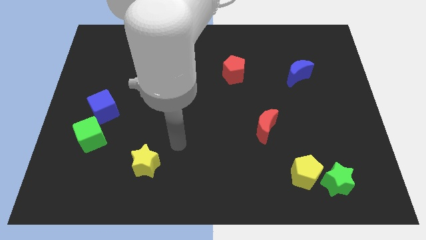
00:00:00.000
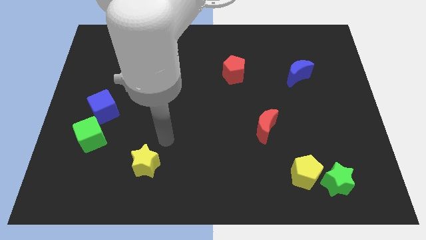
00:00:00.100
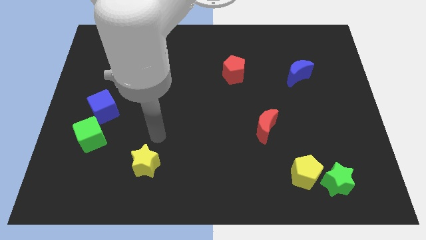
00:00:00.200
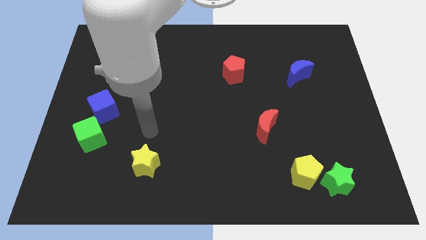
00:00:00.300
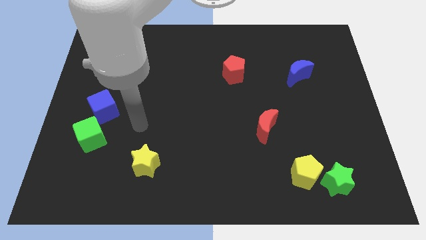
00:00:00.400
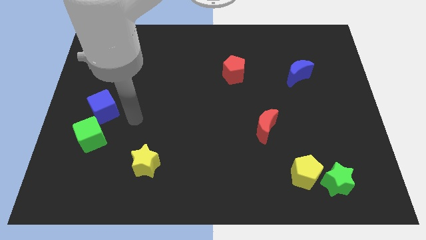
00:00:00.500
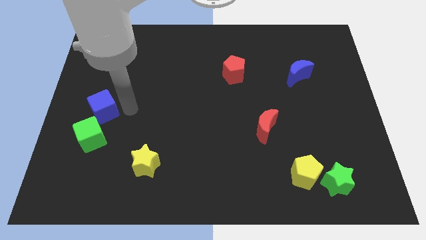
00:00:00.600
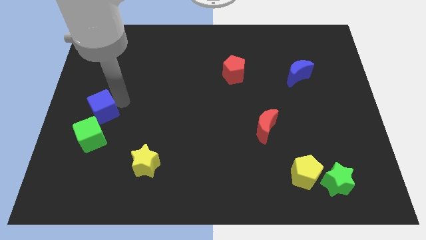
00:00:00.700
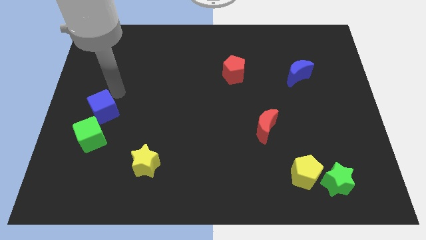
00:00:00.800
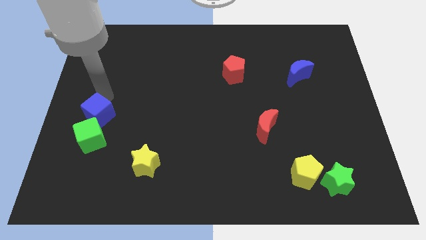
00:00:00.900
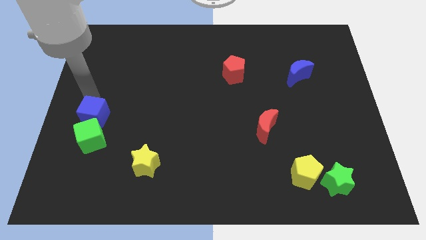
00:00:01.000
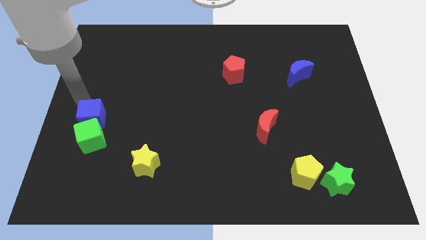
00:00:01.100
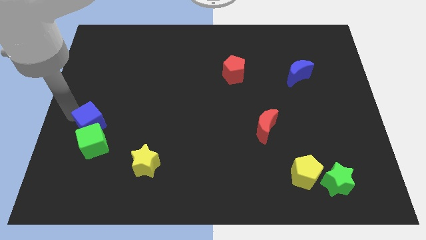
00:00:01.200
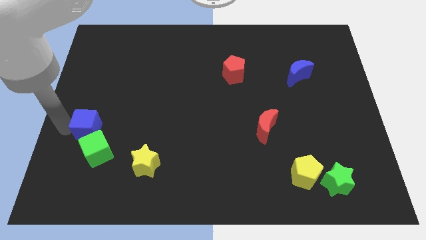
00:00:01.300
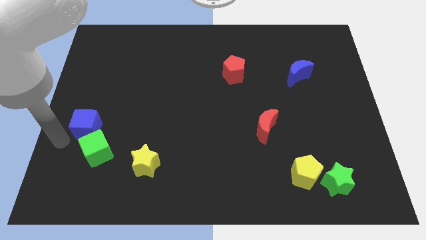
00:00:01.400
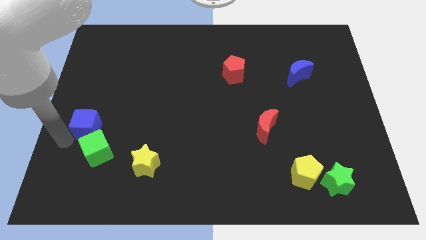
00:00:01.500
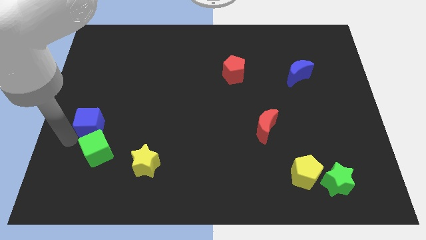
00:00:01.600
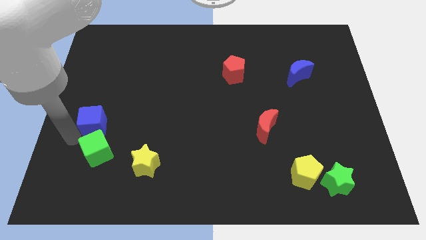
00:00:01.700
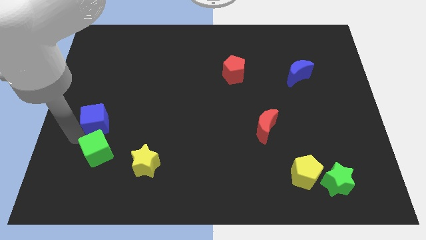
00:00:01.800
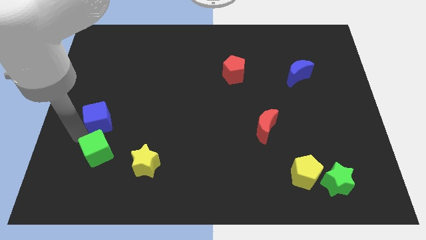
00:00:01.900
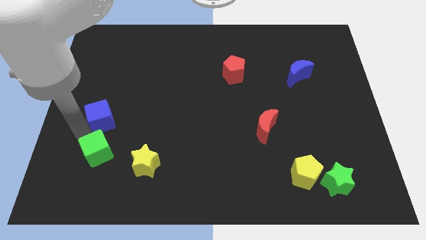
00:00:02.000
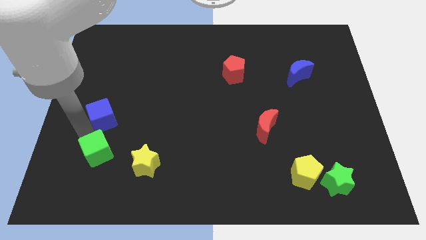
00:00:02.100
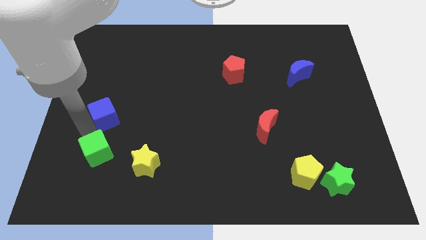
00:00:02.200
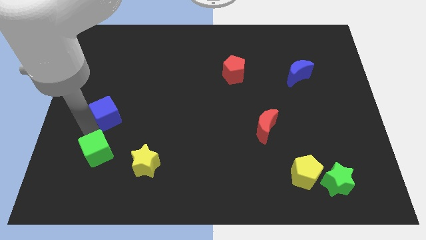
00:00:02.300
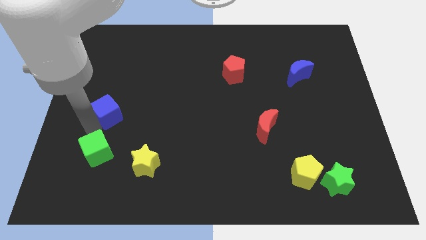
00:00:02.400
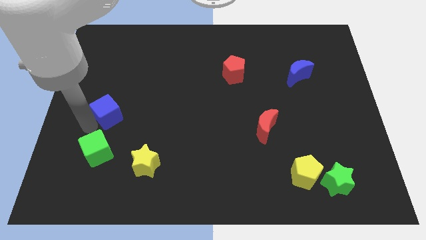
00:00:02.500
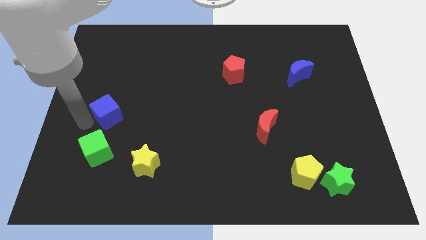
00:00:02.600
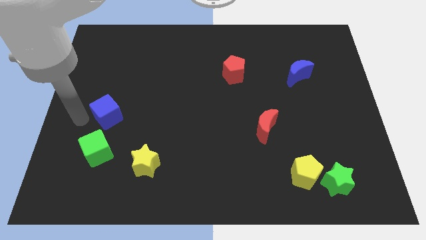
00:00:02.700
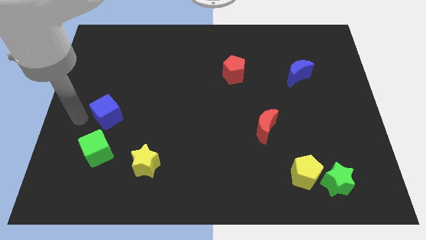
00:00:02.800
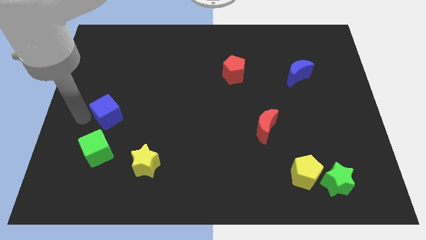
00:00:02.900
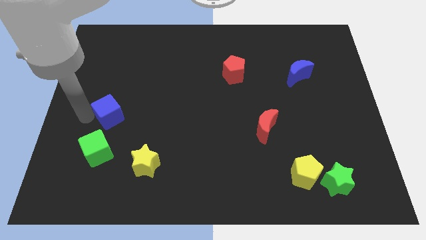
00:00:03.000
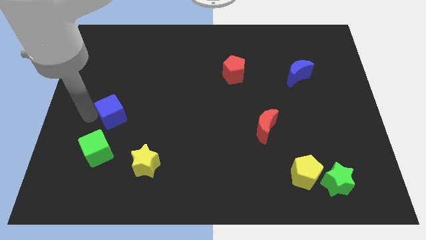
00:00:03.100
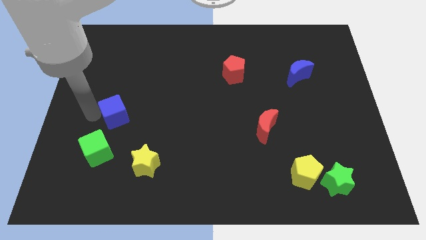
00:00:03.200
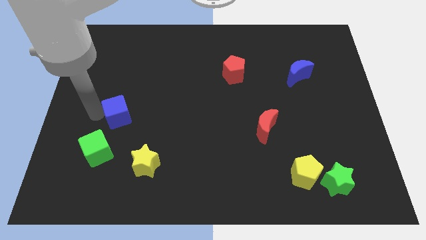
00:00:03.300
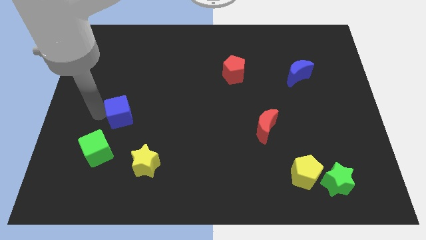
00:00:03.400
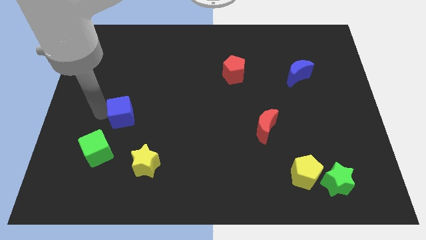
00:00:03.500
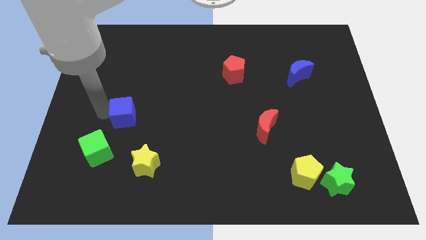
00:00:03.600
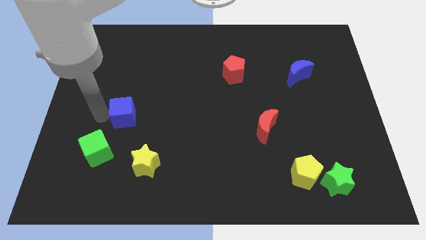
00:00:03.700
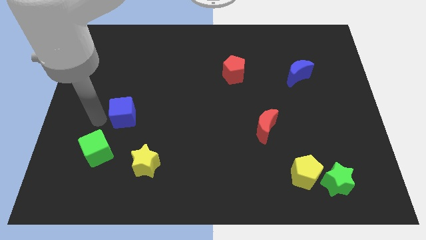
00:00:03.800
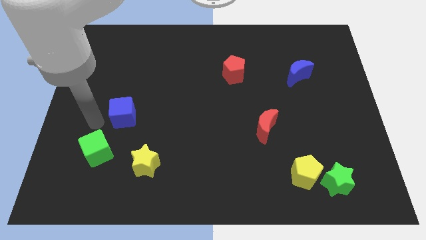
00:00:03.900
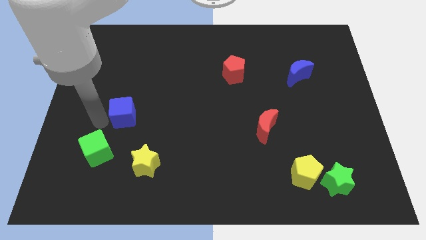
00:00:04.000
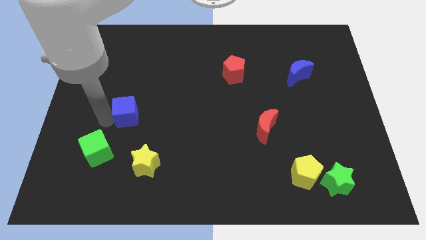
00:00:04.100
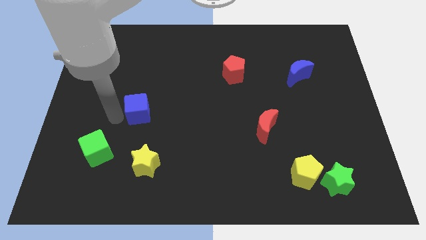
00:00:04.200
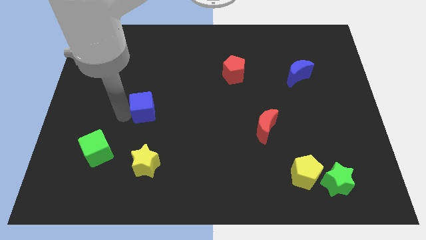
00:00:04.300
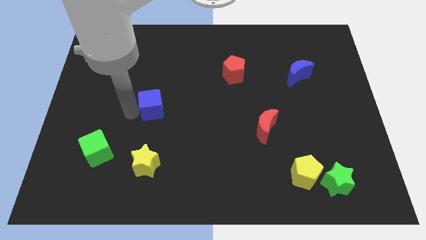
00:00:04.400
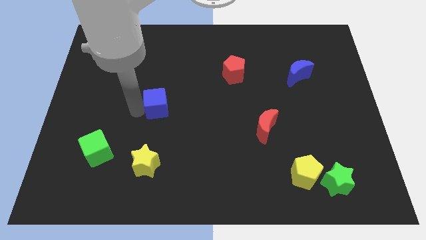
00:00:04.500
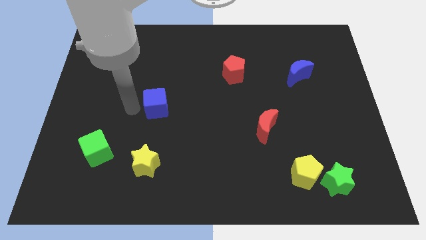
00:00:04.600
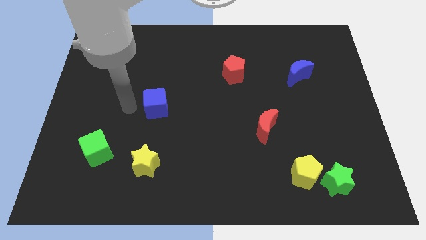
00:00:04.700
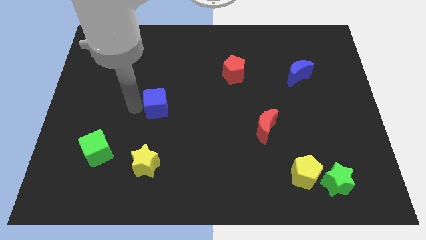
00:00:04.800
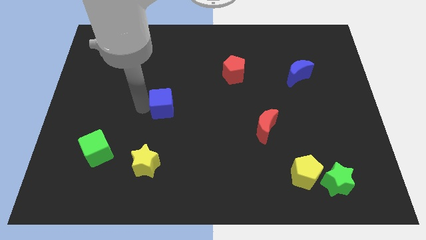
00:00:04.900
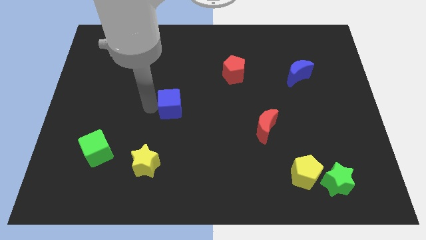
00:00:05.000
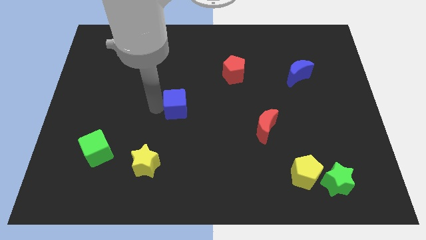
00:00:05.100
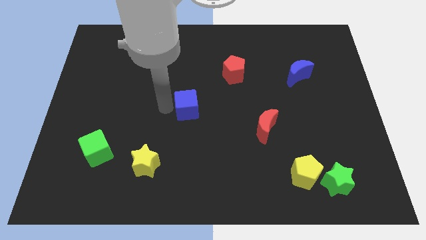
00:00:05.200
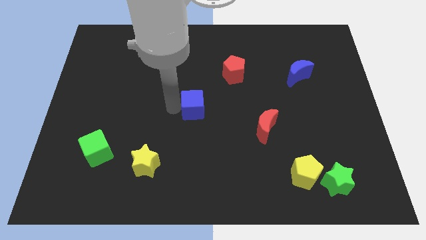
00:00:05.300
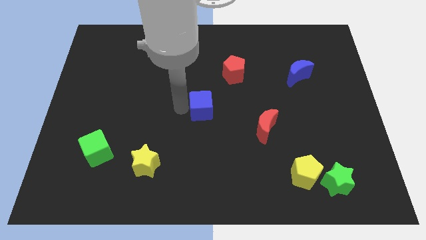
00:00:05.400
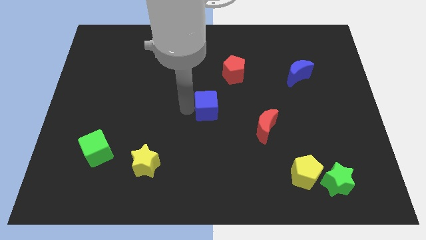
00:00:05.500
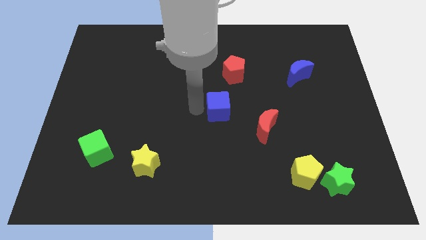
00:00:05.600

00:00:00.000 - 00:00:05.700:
put the blue cube to the top left of the red moon

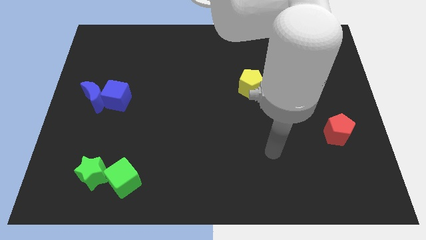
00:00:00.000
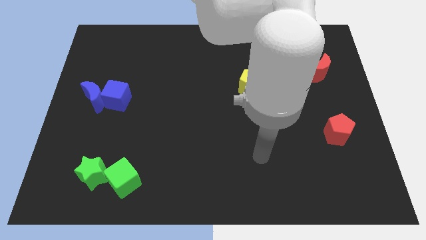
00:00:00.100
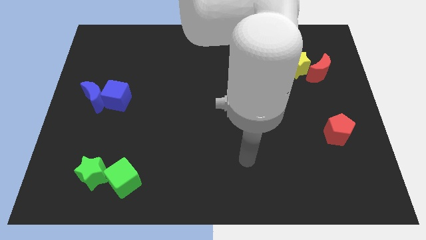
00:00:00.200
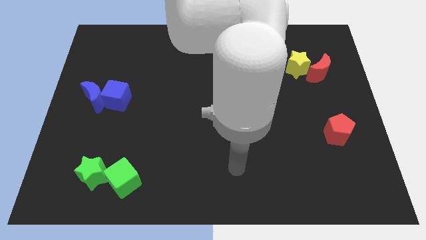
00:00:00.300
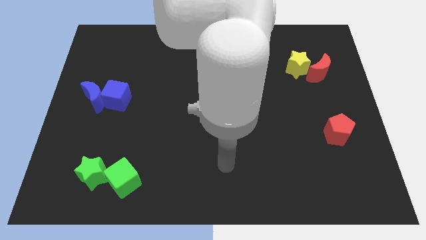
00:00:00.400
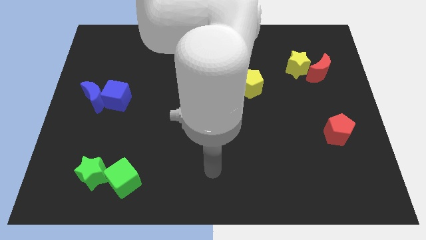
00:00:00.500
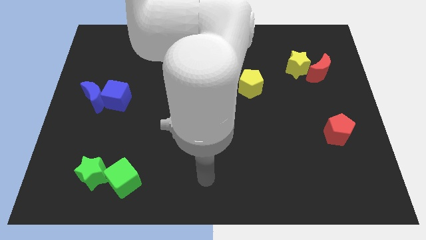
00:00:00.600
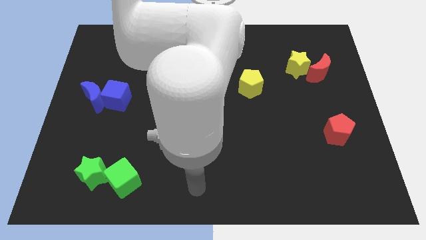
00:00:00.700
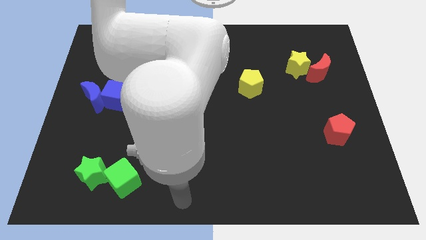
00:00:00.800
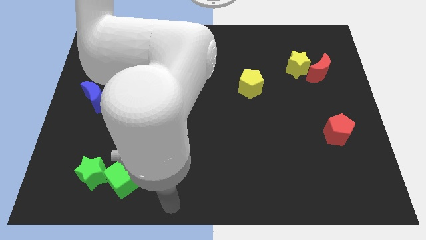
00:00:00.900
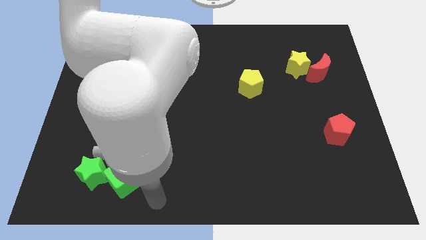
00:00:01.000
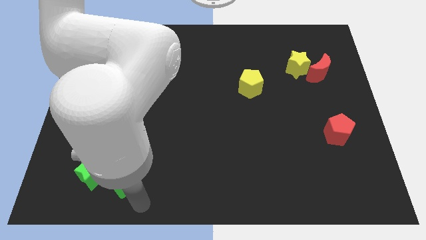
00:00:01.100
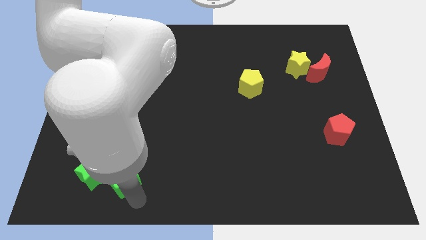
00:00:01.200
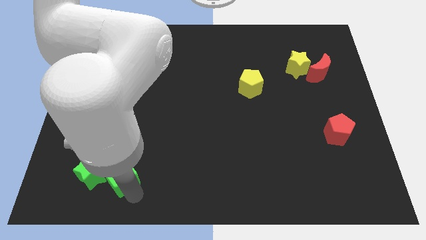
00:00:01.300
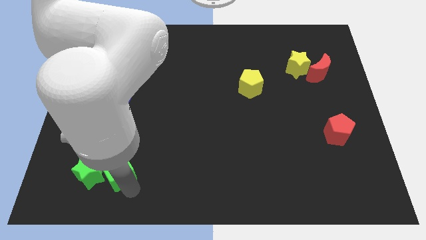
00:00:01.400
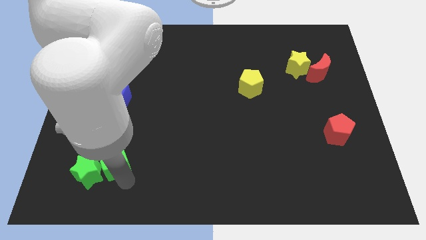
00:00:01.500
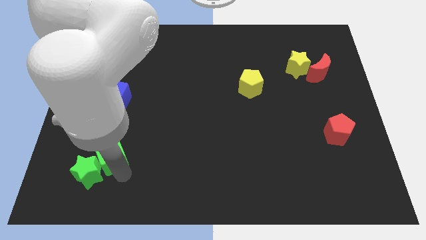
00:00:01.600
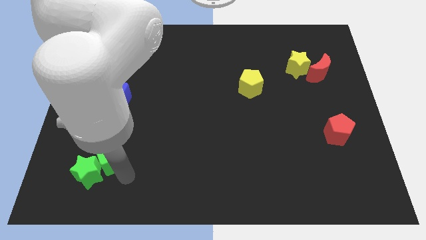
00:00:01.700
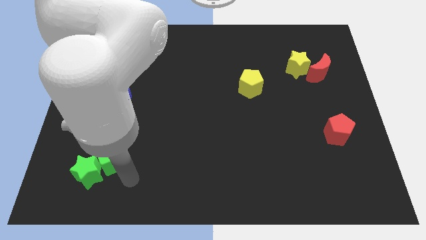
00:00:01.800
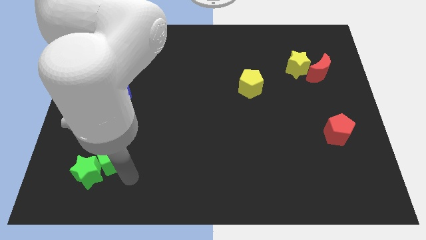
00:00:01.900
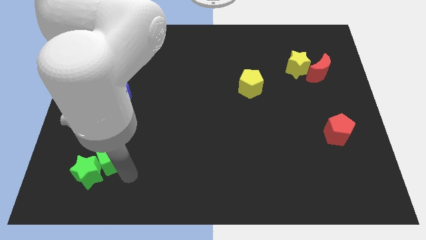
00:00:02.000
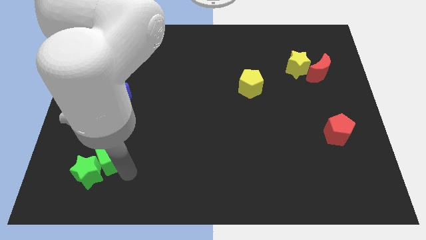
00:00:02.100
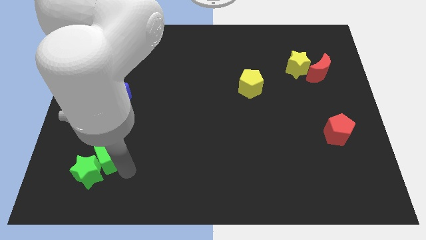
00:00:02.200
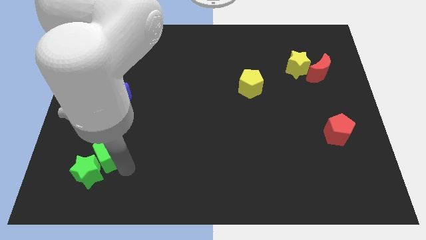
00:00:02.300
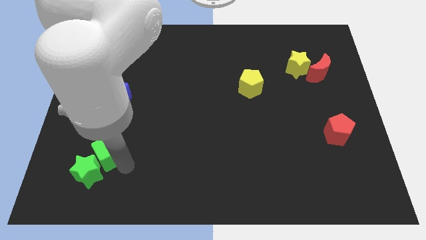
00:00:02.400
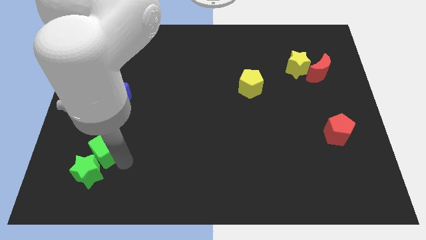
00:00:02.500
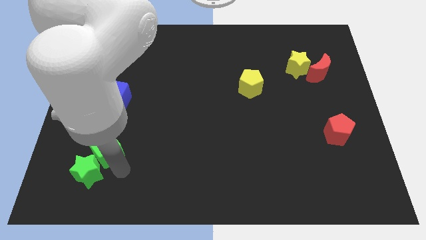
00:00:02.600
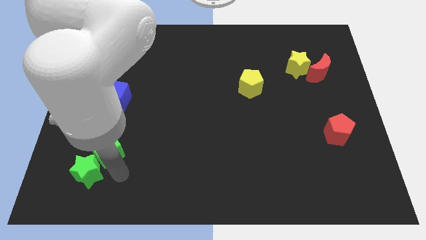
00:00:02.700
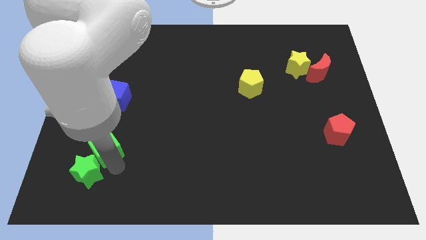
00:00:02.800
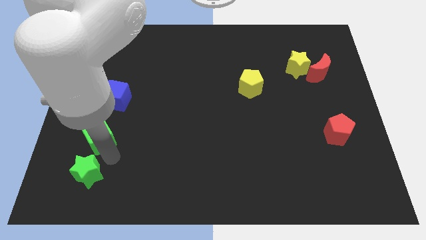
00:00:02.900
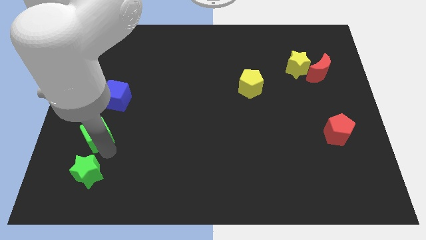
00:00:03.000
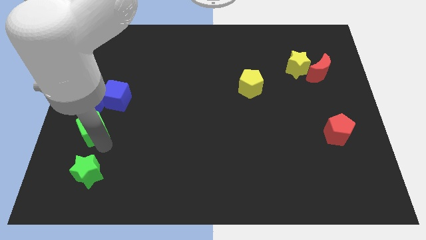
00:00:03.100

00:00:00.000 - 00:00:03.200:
slide the green cube to the bottom left of the blue cube
